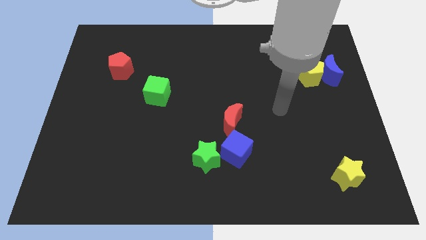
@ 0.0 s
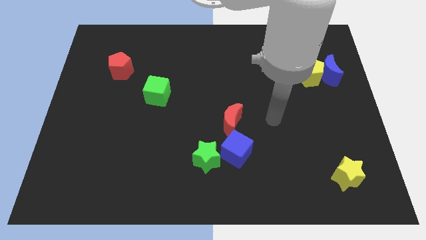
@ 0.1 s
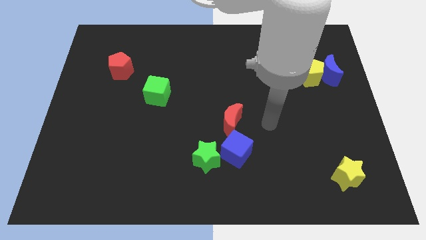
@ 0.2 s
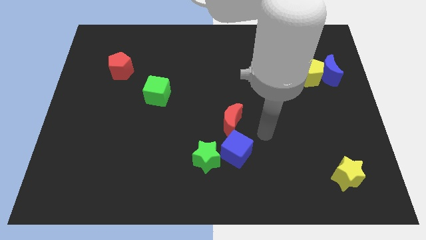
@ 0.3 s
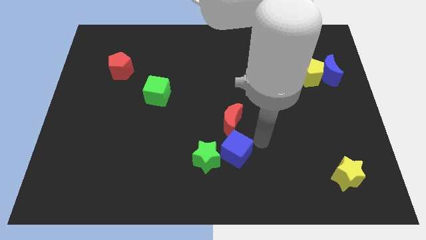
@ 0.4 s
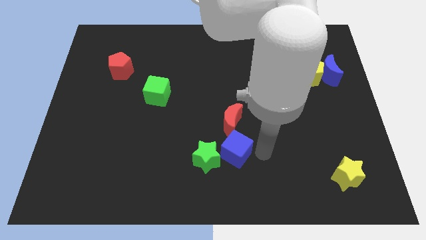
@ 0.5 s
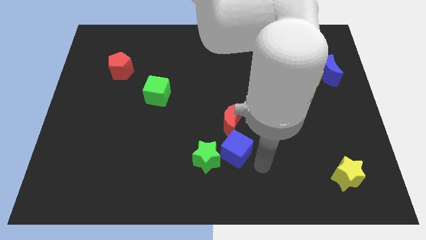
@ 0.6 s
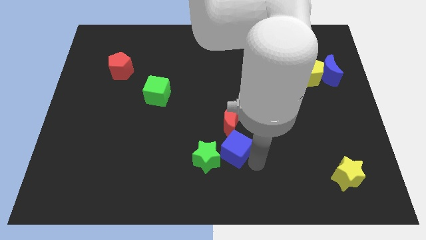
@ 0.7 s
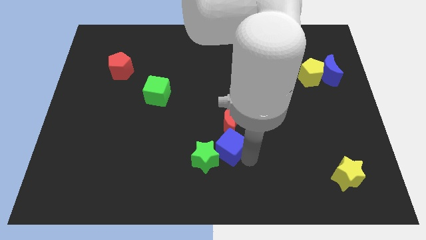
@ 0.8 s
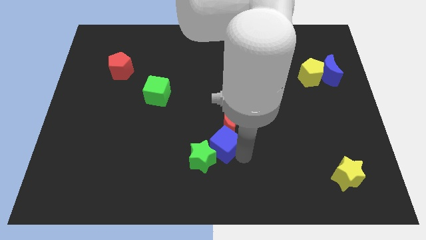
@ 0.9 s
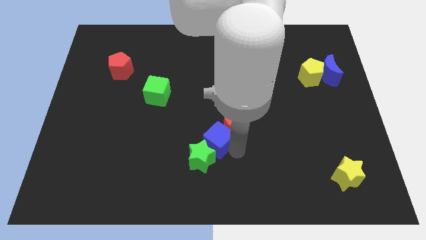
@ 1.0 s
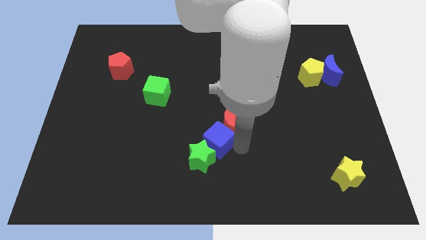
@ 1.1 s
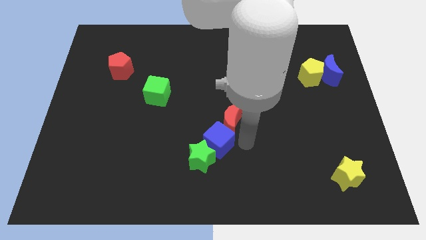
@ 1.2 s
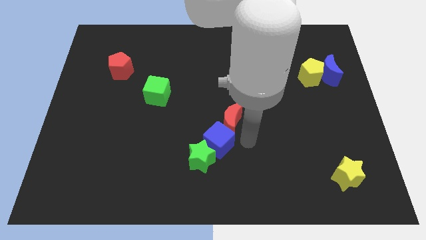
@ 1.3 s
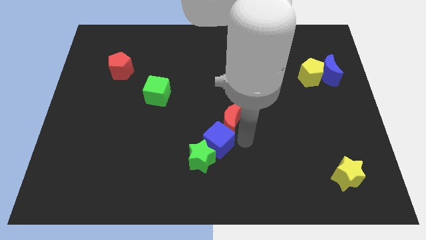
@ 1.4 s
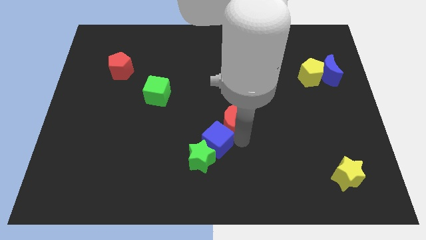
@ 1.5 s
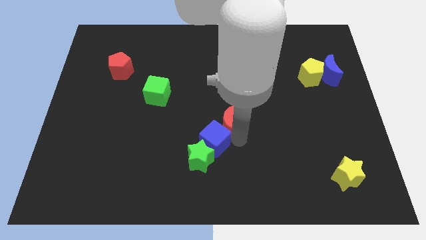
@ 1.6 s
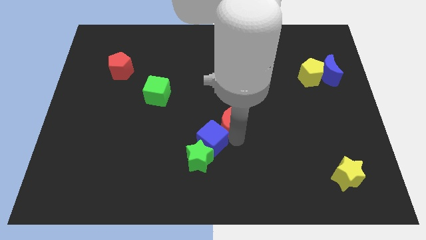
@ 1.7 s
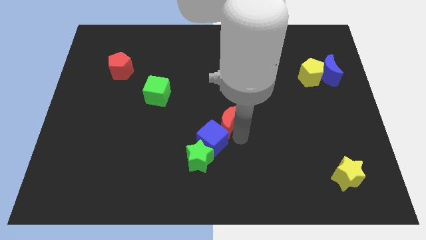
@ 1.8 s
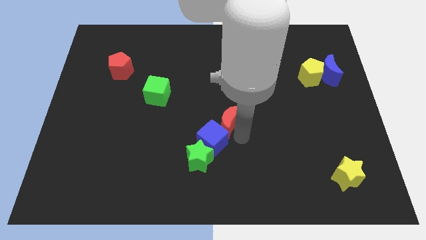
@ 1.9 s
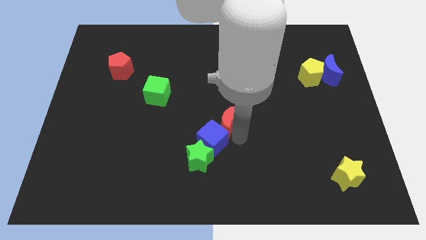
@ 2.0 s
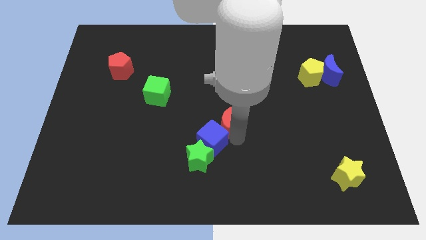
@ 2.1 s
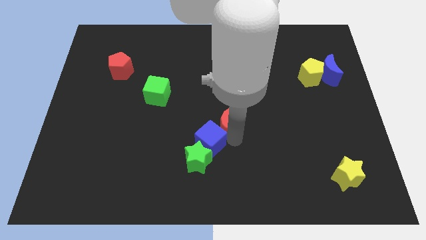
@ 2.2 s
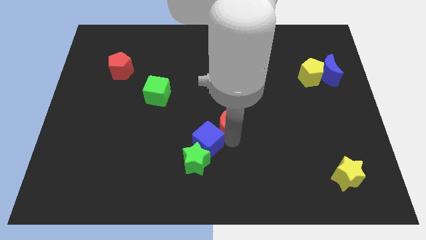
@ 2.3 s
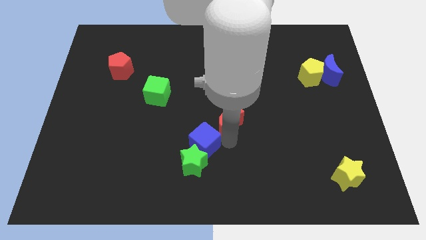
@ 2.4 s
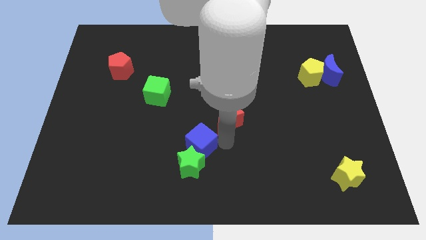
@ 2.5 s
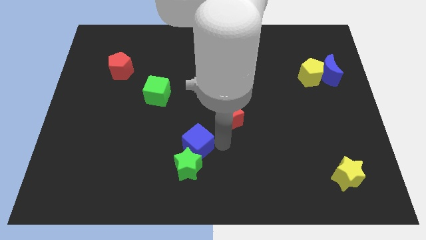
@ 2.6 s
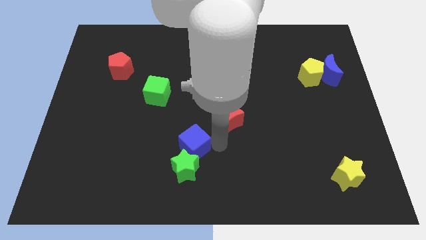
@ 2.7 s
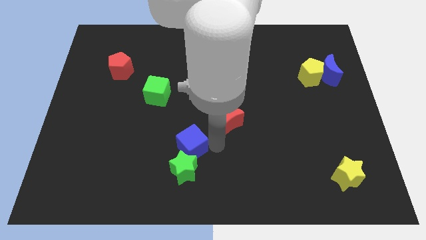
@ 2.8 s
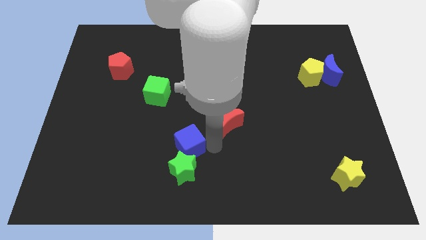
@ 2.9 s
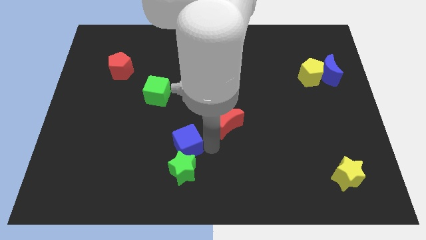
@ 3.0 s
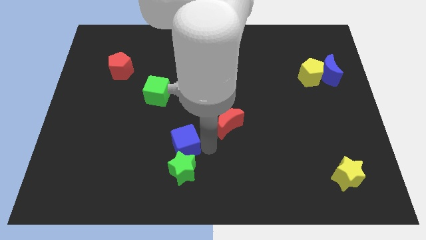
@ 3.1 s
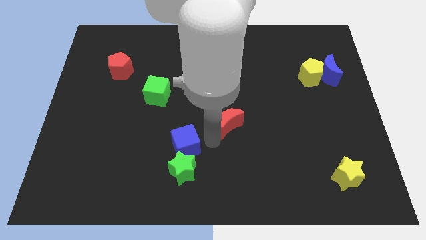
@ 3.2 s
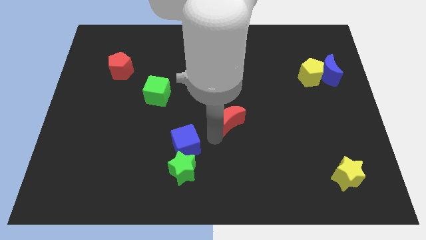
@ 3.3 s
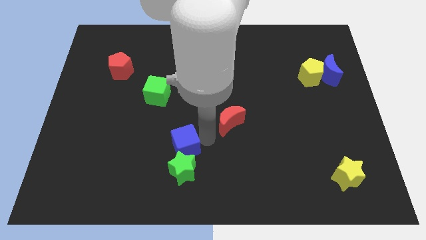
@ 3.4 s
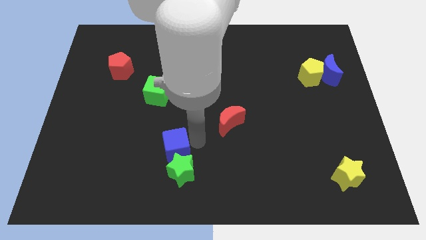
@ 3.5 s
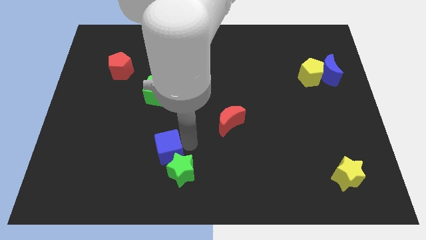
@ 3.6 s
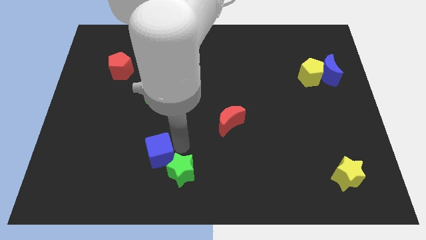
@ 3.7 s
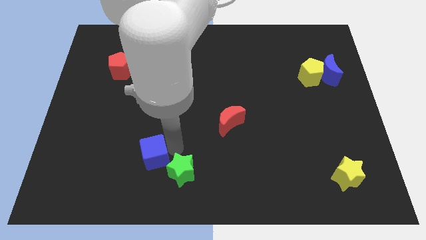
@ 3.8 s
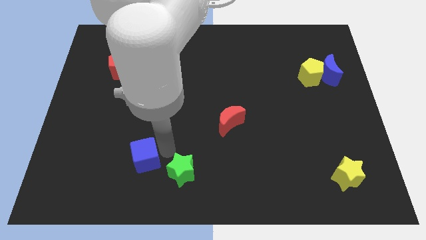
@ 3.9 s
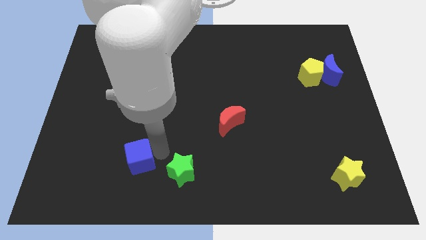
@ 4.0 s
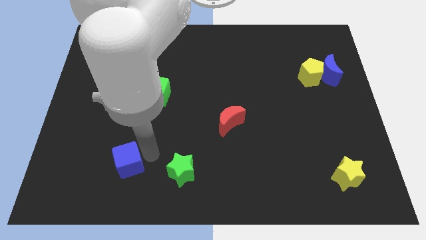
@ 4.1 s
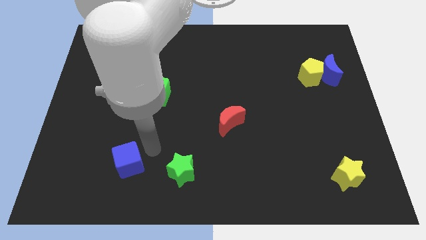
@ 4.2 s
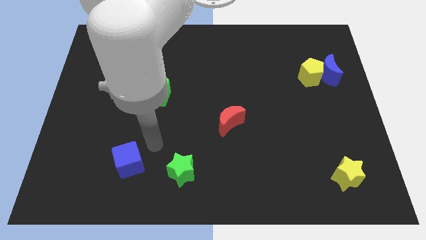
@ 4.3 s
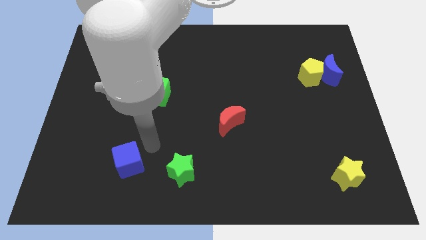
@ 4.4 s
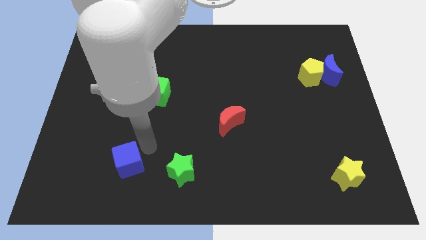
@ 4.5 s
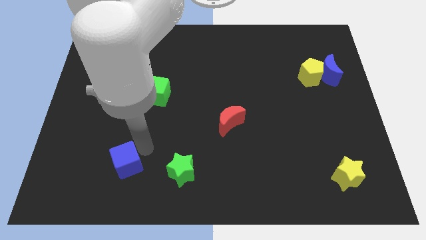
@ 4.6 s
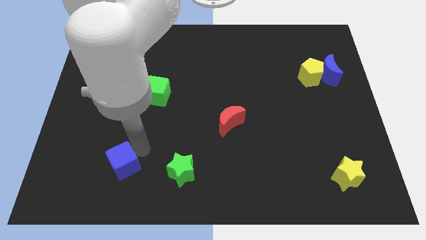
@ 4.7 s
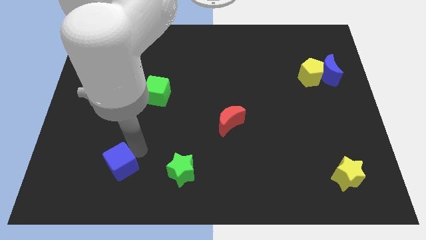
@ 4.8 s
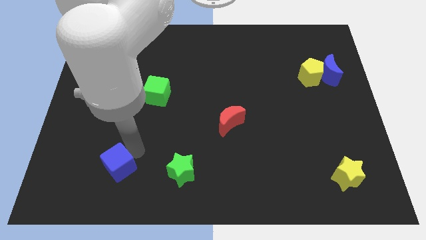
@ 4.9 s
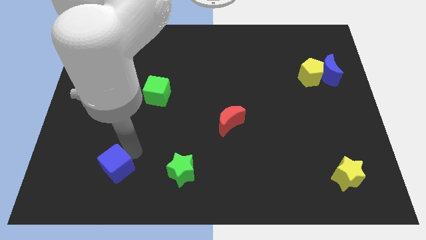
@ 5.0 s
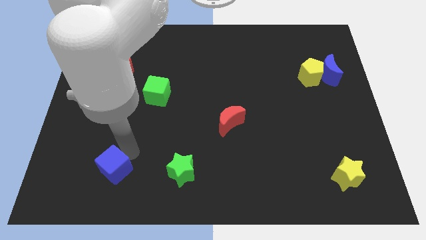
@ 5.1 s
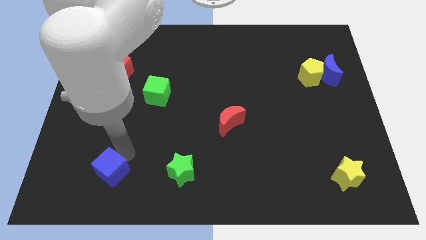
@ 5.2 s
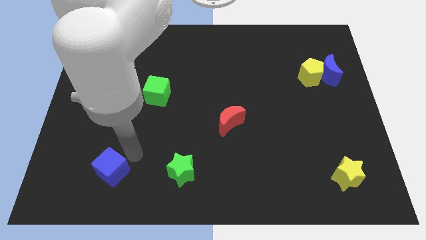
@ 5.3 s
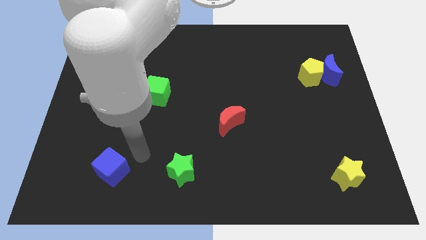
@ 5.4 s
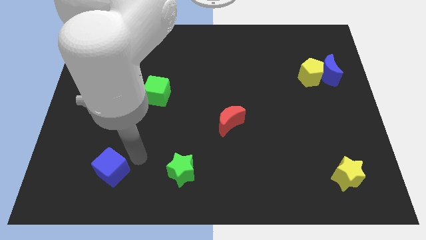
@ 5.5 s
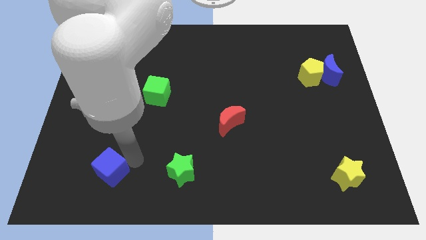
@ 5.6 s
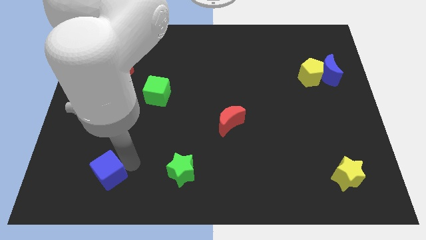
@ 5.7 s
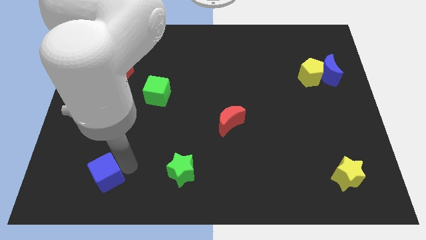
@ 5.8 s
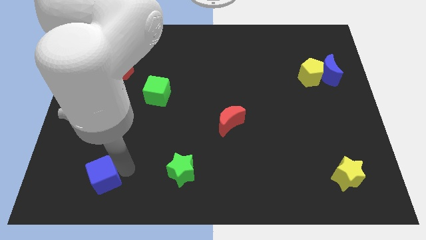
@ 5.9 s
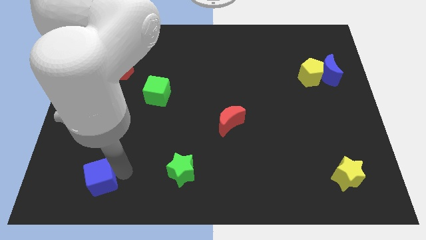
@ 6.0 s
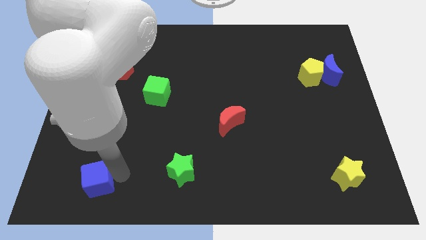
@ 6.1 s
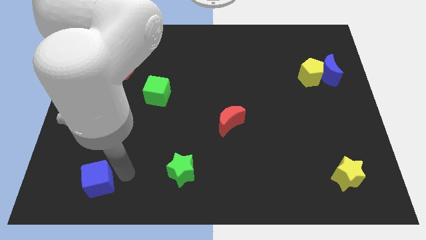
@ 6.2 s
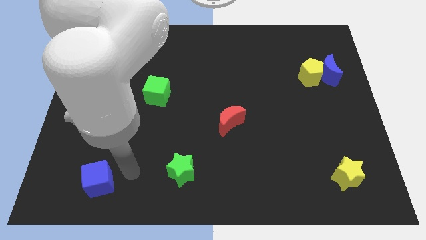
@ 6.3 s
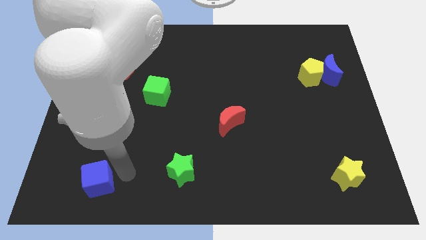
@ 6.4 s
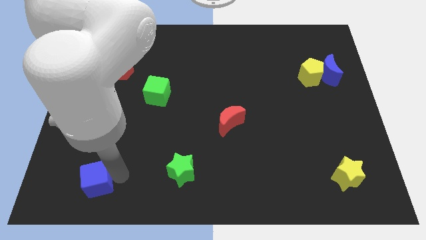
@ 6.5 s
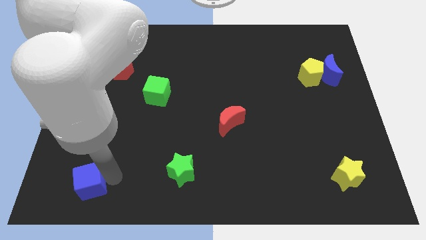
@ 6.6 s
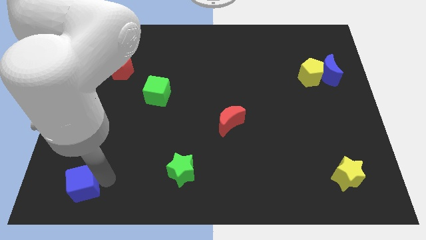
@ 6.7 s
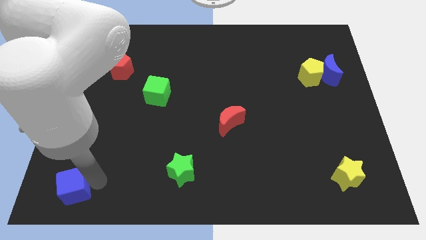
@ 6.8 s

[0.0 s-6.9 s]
slide the blue cube to the bottom left corner
